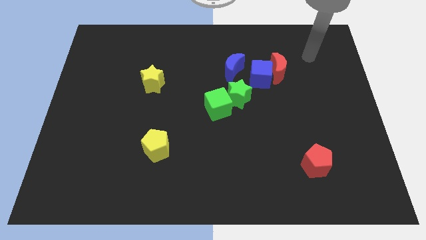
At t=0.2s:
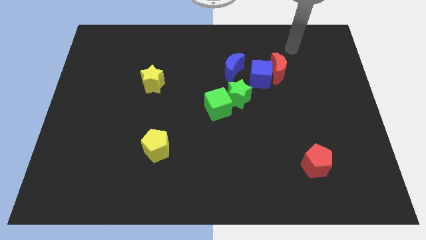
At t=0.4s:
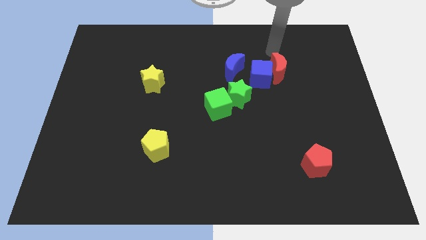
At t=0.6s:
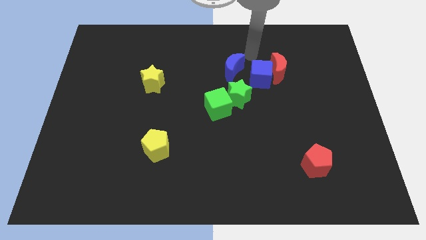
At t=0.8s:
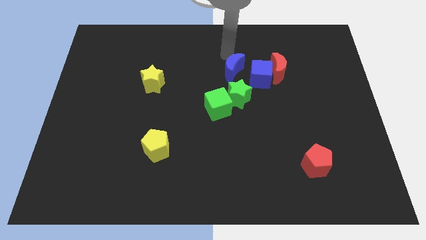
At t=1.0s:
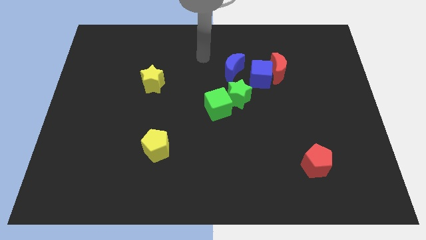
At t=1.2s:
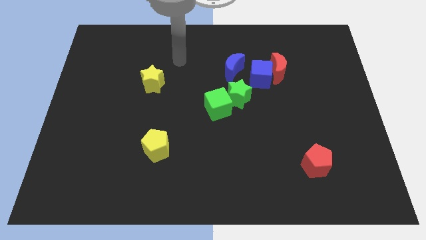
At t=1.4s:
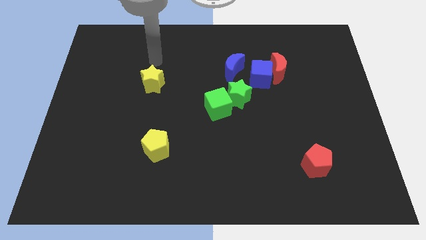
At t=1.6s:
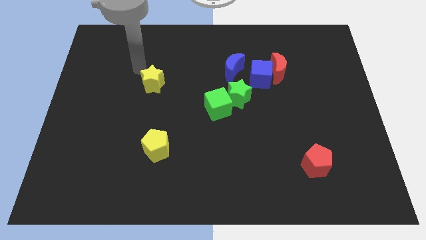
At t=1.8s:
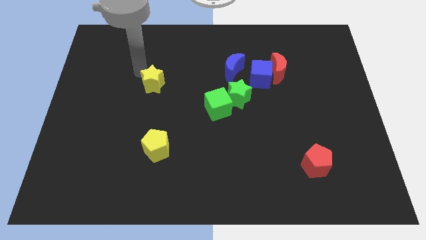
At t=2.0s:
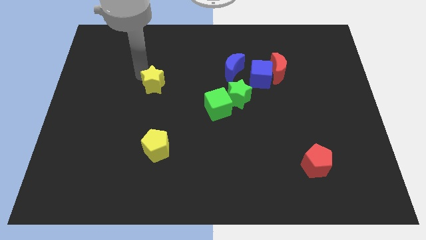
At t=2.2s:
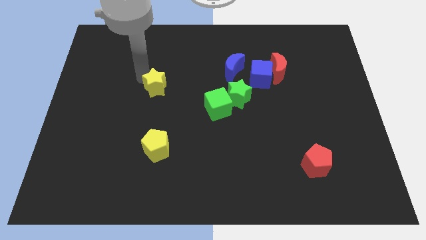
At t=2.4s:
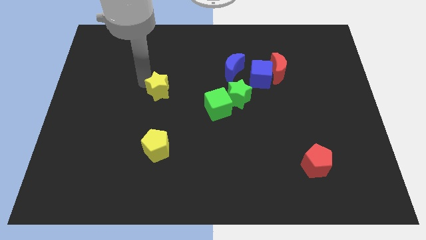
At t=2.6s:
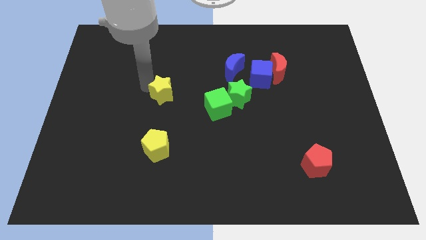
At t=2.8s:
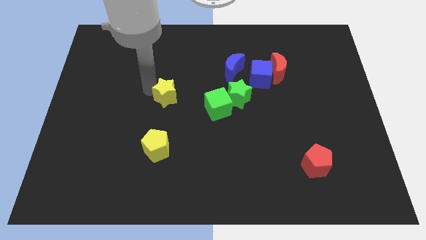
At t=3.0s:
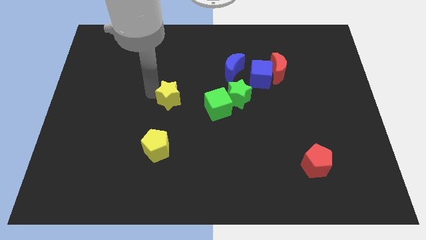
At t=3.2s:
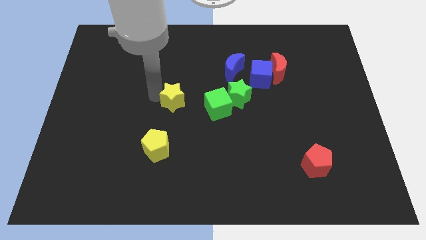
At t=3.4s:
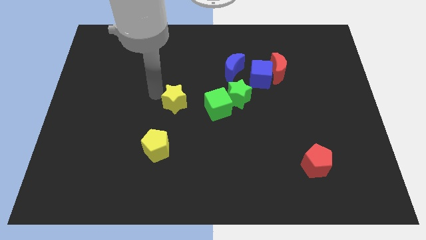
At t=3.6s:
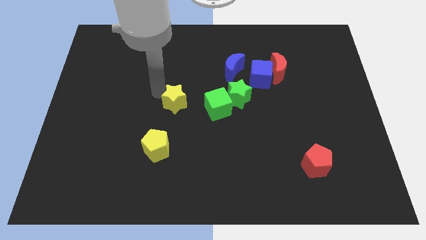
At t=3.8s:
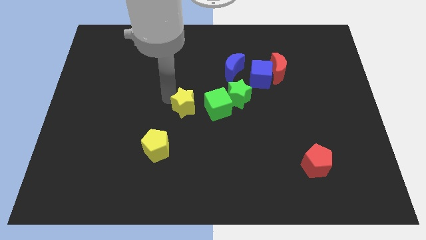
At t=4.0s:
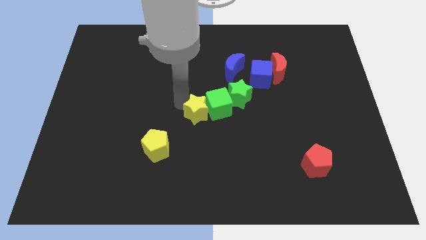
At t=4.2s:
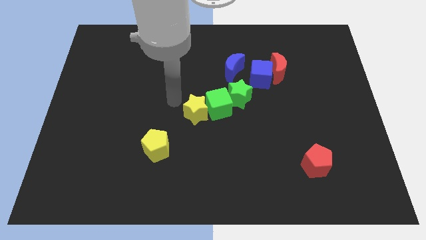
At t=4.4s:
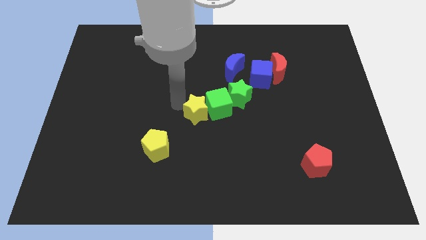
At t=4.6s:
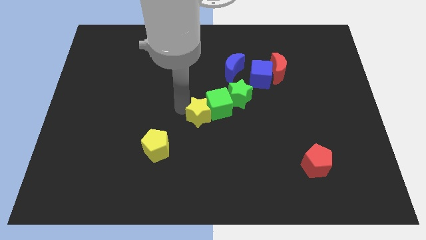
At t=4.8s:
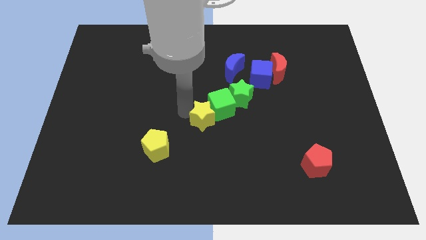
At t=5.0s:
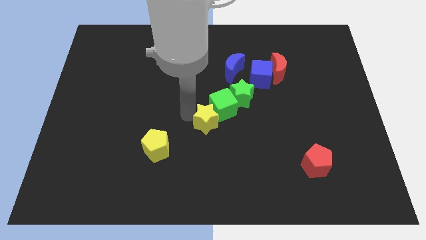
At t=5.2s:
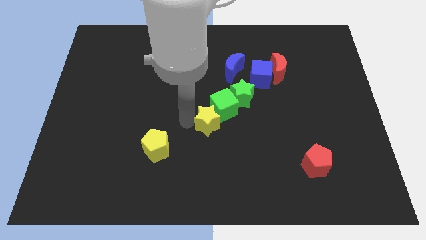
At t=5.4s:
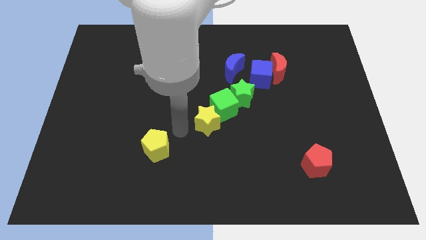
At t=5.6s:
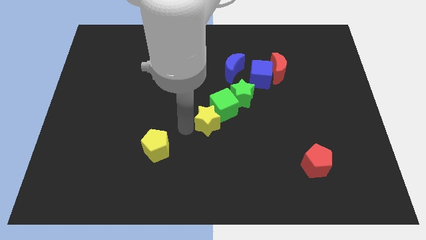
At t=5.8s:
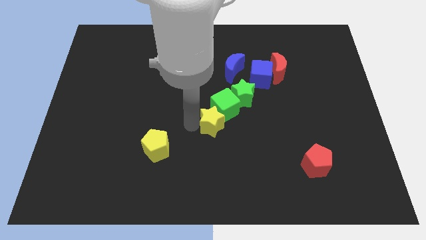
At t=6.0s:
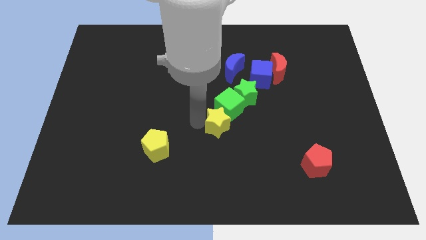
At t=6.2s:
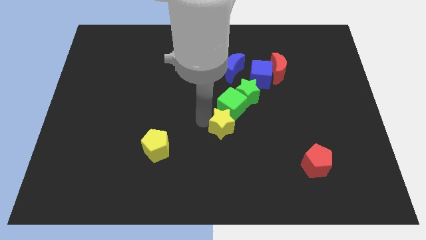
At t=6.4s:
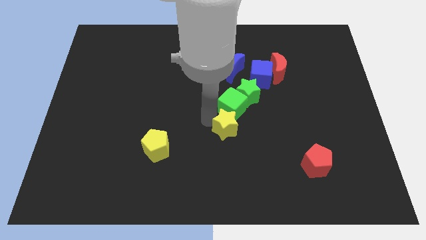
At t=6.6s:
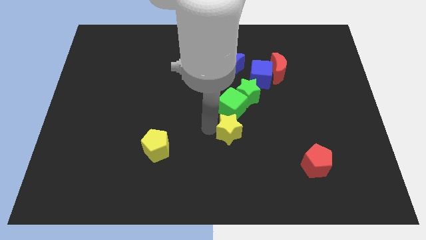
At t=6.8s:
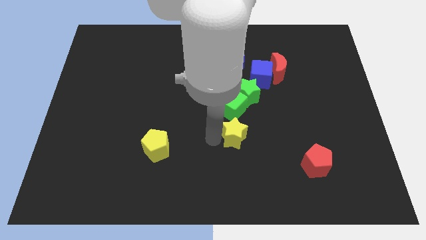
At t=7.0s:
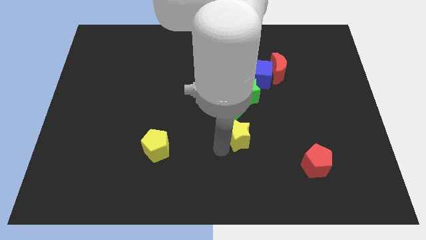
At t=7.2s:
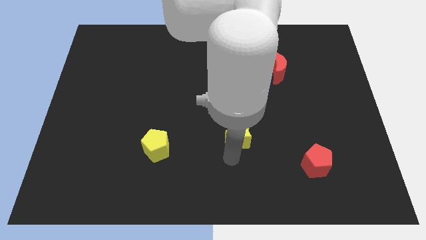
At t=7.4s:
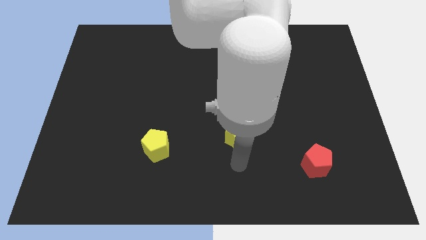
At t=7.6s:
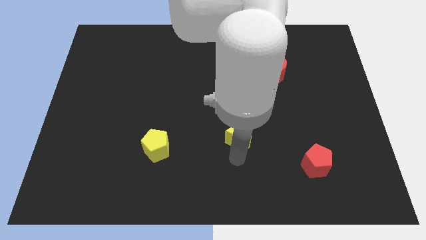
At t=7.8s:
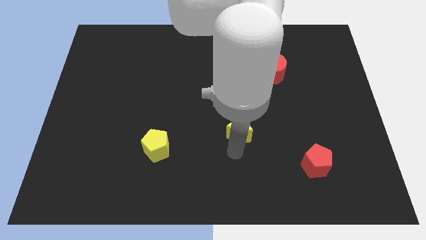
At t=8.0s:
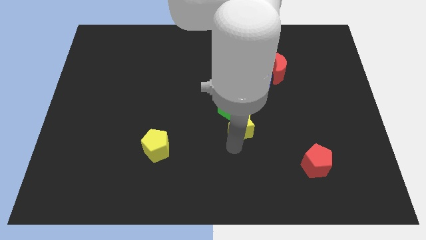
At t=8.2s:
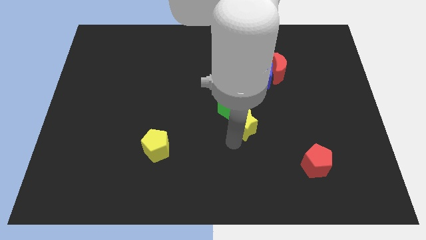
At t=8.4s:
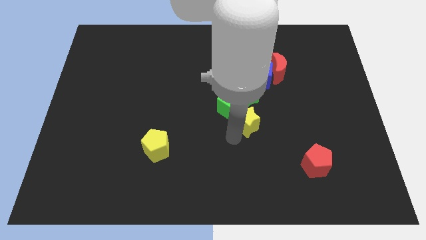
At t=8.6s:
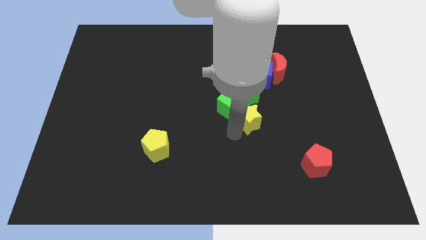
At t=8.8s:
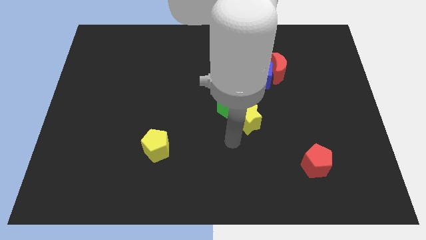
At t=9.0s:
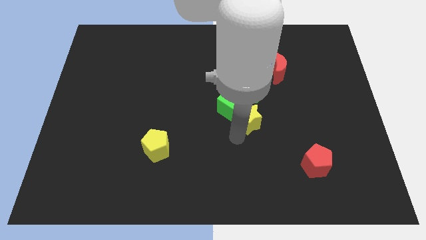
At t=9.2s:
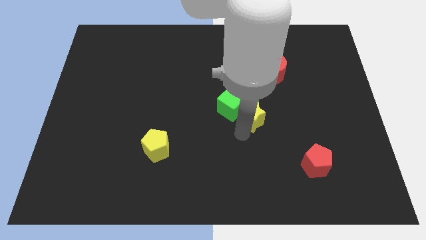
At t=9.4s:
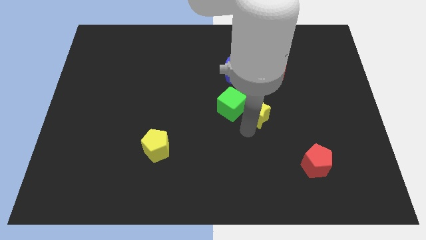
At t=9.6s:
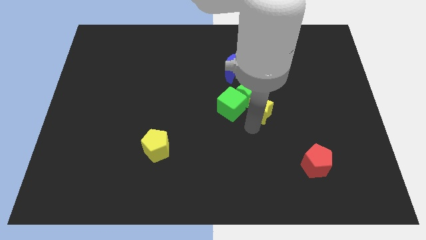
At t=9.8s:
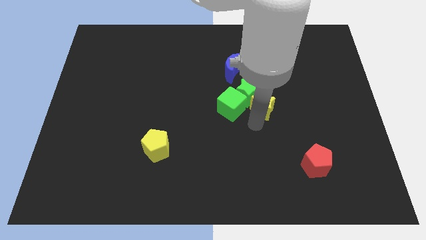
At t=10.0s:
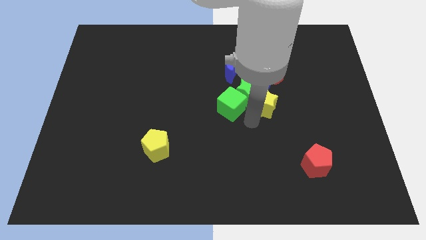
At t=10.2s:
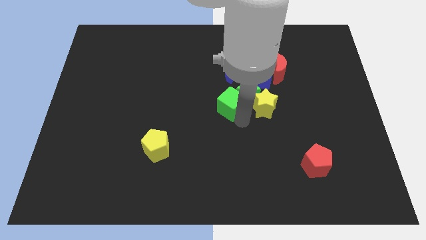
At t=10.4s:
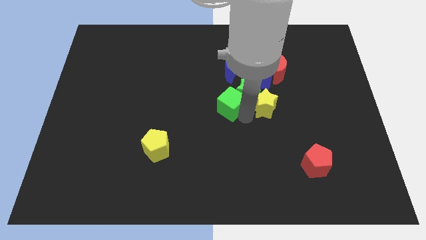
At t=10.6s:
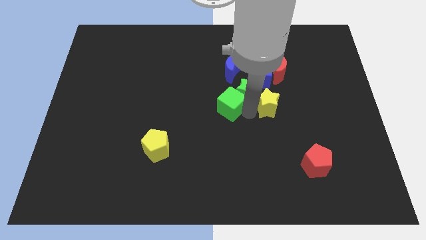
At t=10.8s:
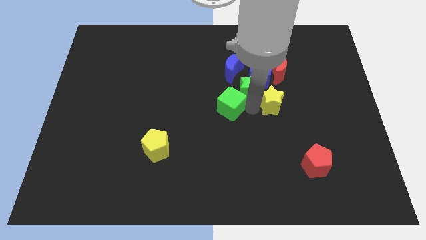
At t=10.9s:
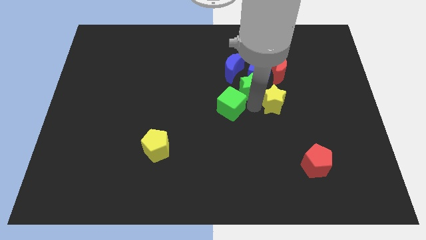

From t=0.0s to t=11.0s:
push the yellow star to the bottom right of the blue cube

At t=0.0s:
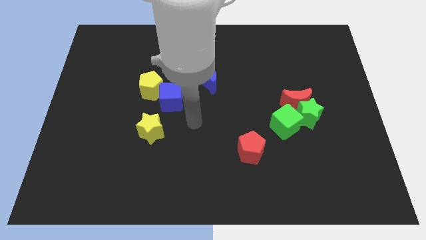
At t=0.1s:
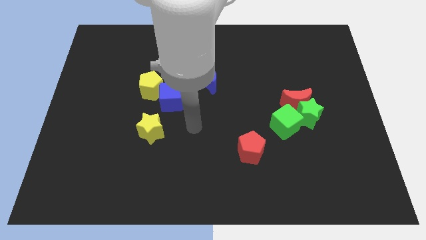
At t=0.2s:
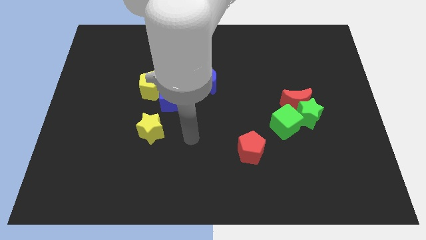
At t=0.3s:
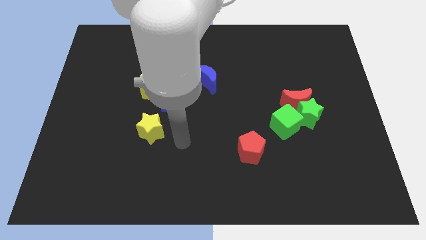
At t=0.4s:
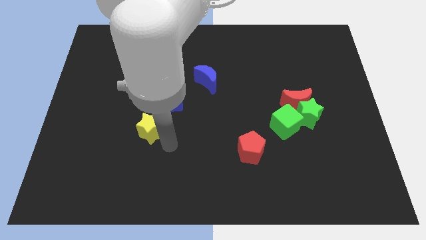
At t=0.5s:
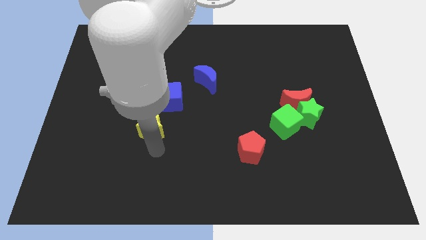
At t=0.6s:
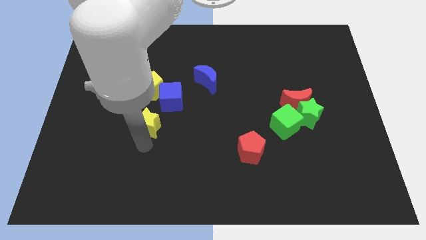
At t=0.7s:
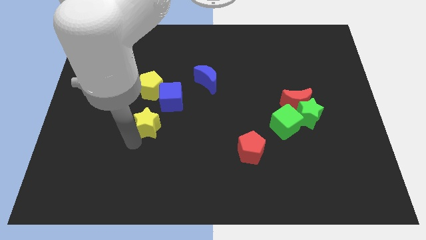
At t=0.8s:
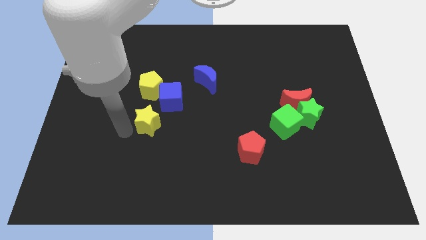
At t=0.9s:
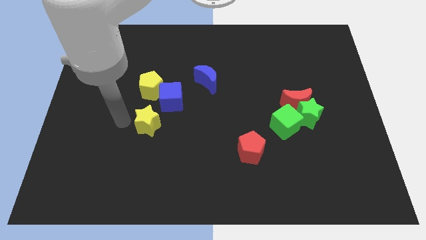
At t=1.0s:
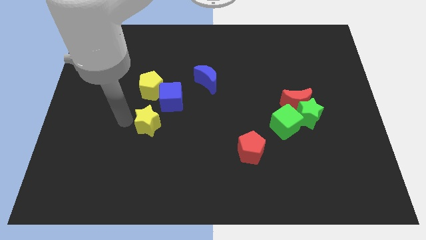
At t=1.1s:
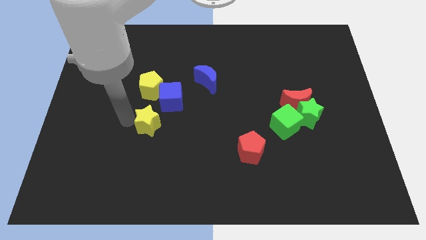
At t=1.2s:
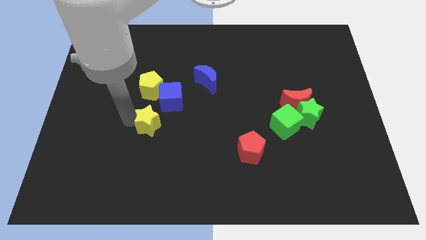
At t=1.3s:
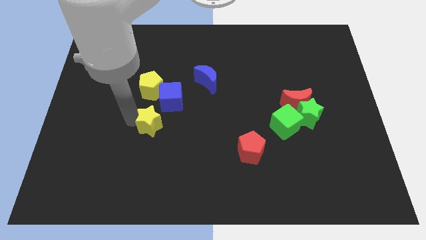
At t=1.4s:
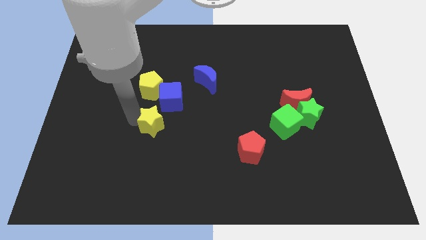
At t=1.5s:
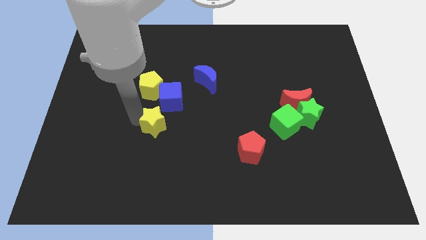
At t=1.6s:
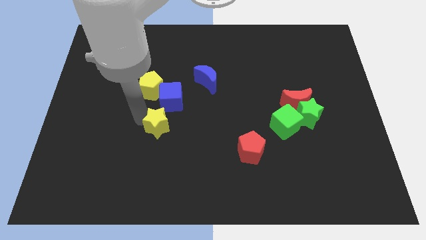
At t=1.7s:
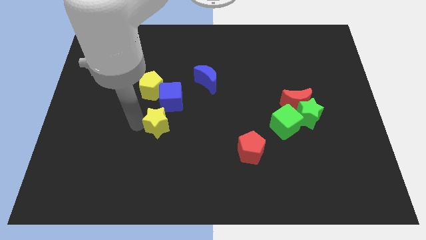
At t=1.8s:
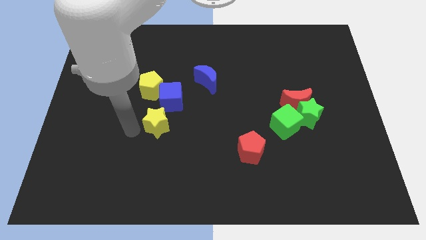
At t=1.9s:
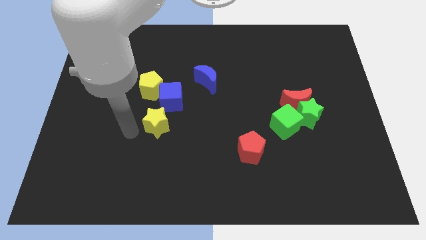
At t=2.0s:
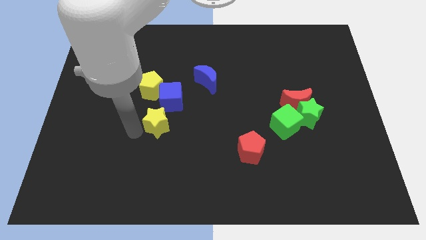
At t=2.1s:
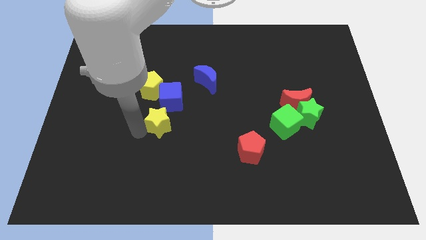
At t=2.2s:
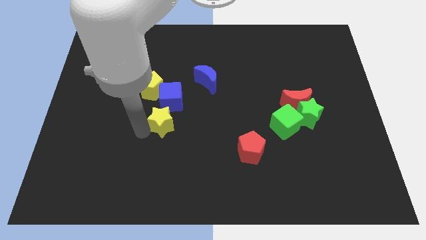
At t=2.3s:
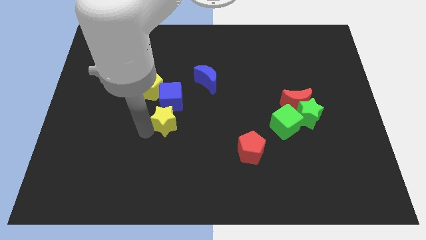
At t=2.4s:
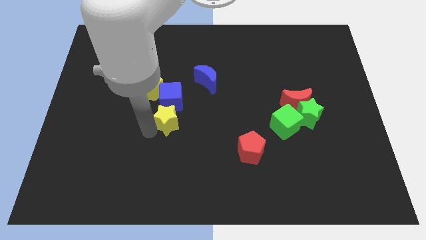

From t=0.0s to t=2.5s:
slide the yellow star diagonally down and to the right of the blue cube
